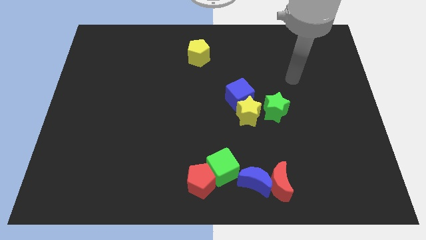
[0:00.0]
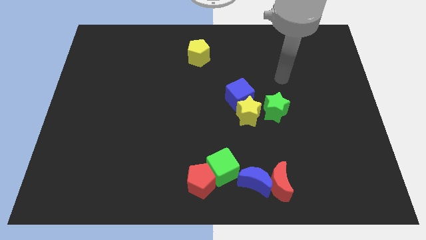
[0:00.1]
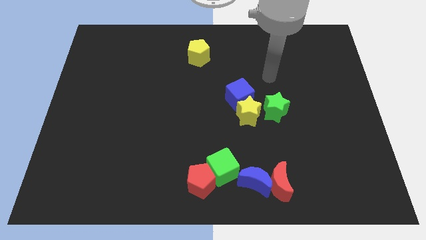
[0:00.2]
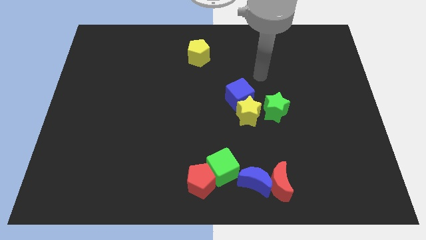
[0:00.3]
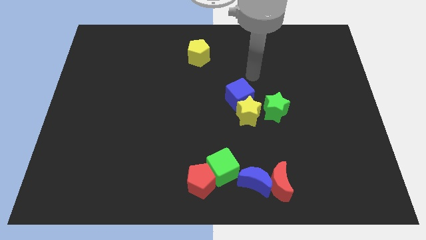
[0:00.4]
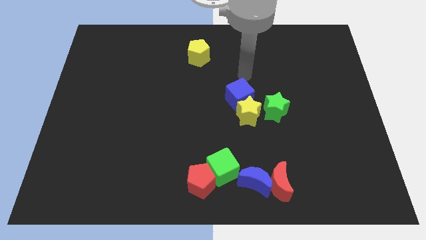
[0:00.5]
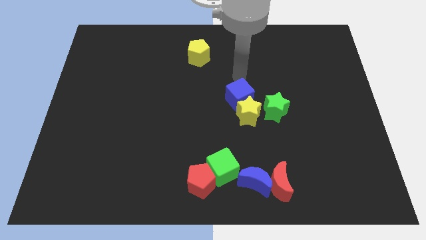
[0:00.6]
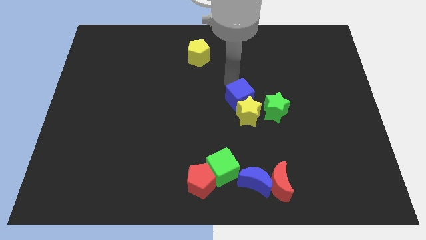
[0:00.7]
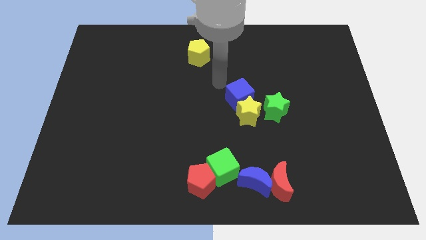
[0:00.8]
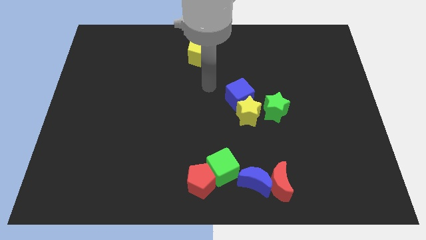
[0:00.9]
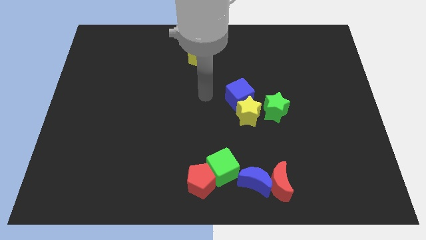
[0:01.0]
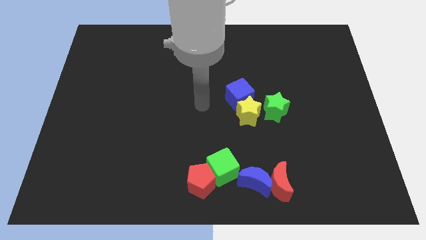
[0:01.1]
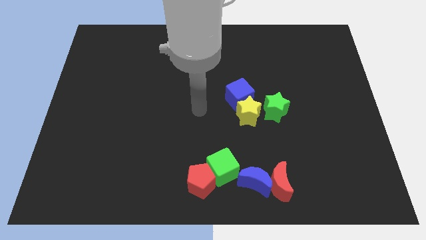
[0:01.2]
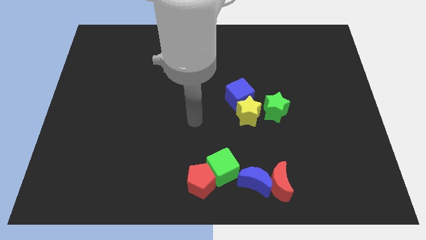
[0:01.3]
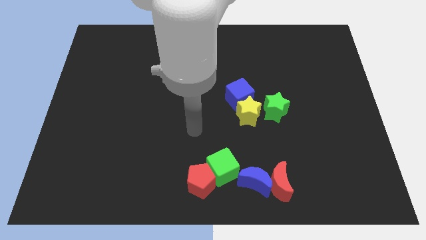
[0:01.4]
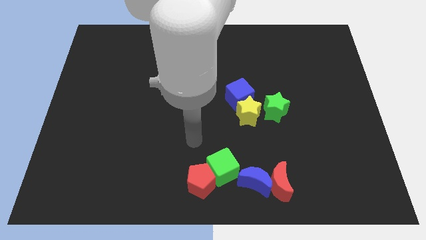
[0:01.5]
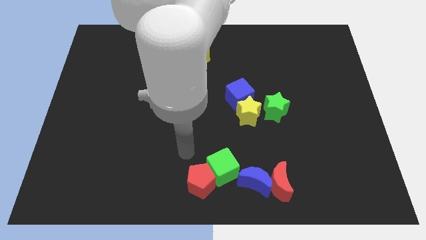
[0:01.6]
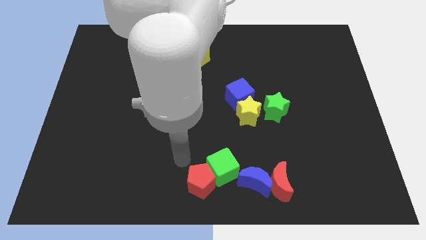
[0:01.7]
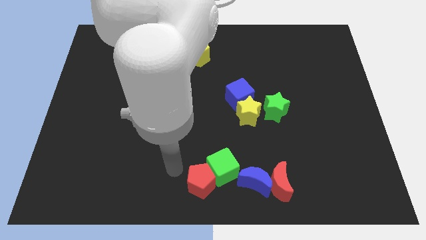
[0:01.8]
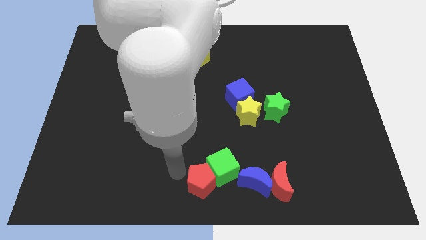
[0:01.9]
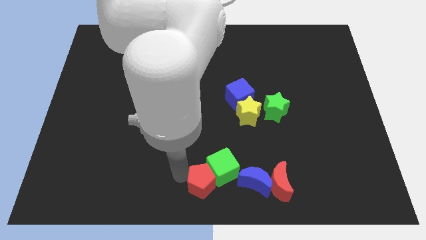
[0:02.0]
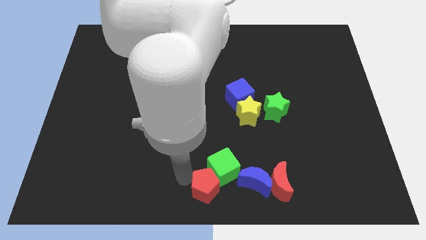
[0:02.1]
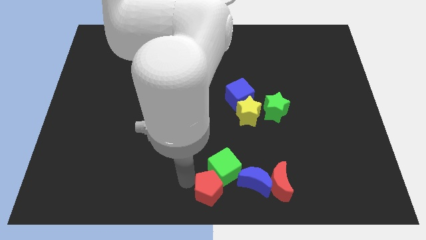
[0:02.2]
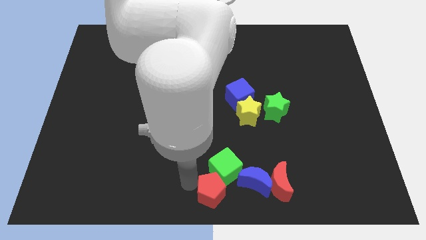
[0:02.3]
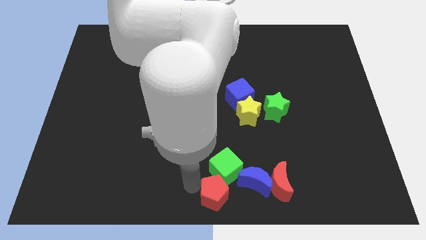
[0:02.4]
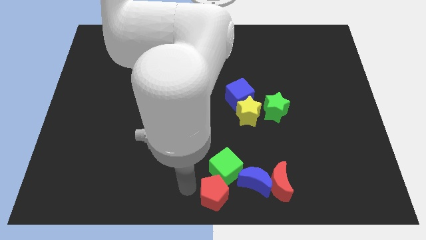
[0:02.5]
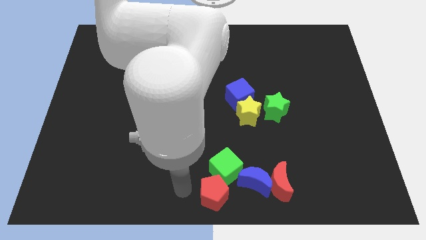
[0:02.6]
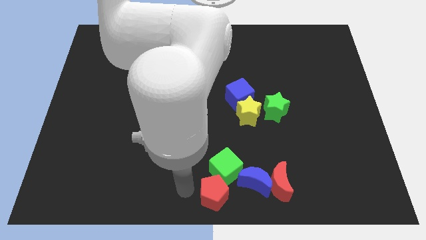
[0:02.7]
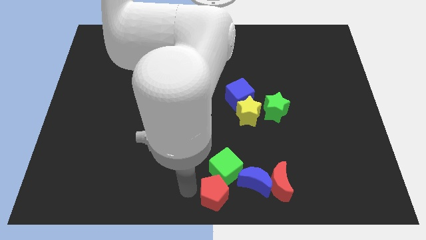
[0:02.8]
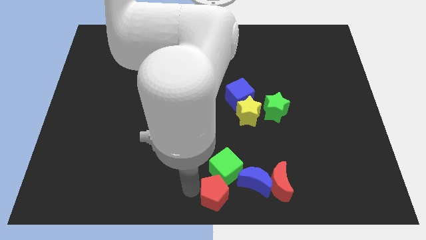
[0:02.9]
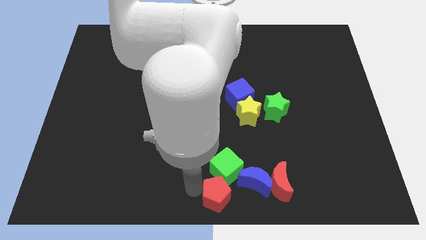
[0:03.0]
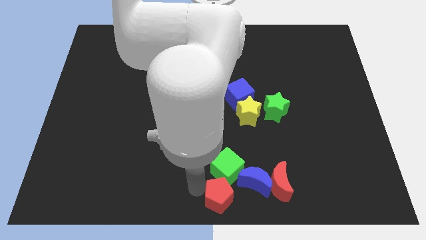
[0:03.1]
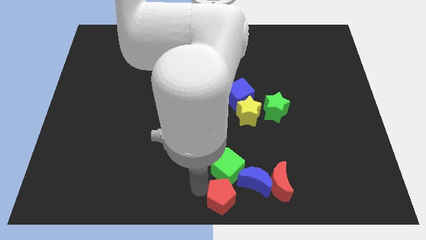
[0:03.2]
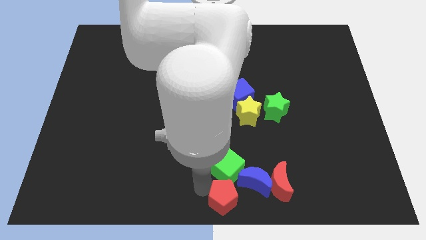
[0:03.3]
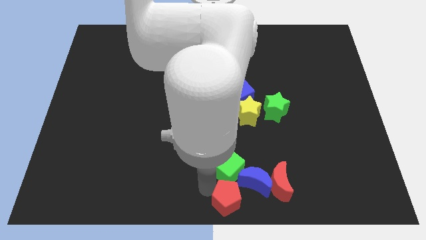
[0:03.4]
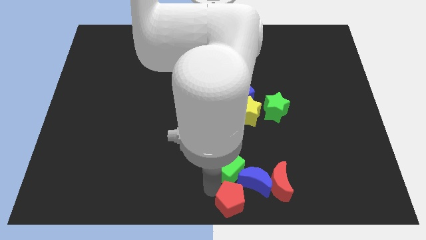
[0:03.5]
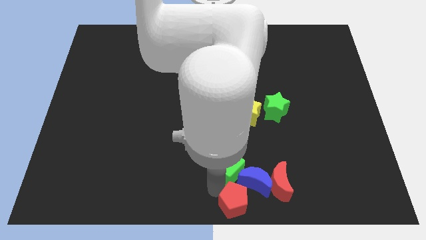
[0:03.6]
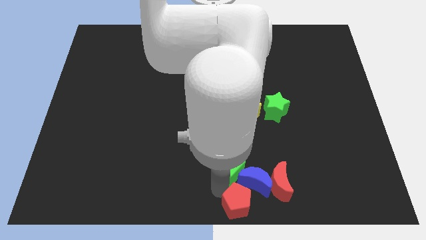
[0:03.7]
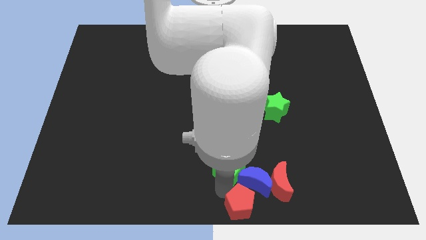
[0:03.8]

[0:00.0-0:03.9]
slide the red pentagon right a little bit

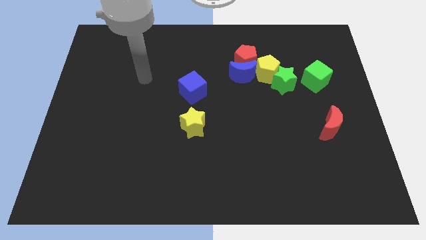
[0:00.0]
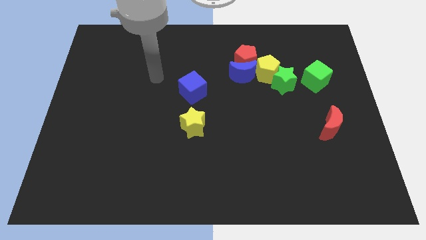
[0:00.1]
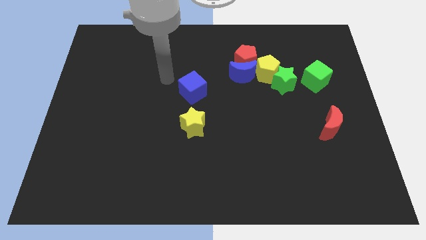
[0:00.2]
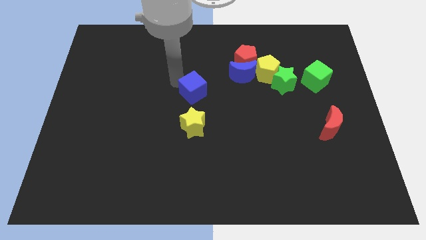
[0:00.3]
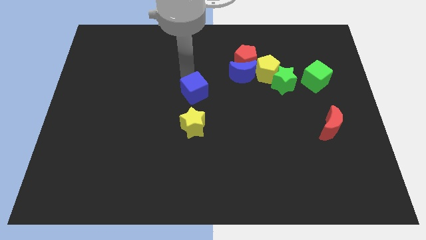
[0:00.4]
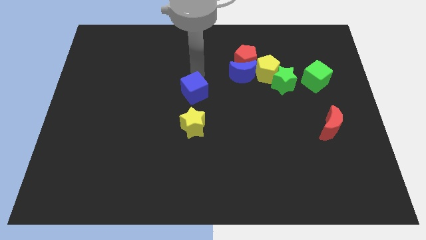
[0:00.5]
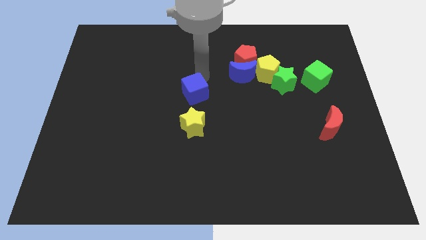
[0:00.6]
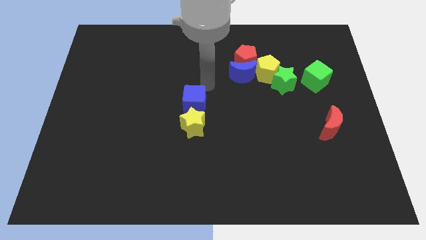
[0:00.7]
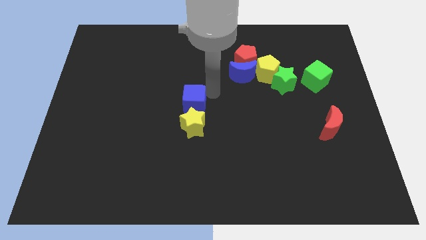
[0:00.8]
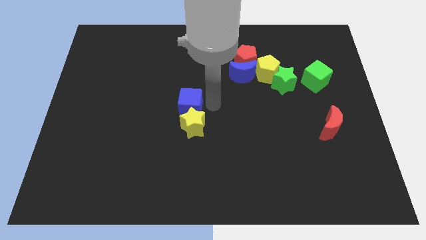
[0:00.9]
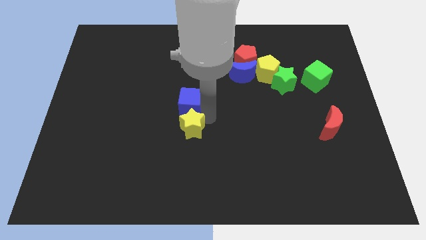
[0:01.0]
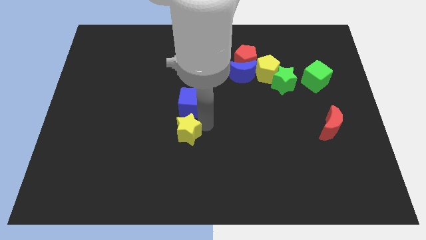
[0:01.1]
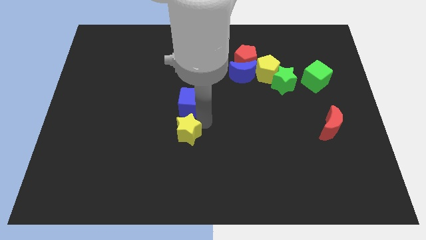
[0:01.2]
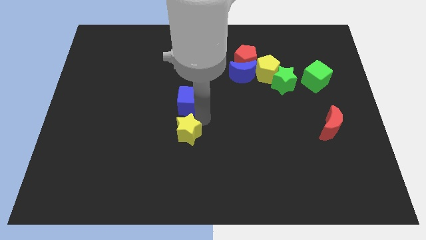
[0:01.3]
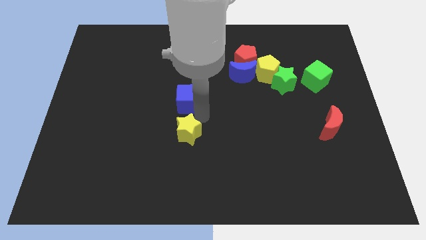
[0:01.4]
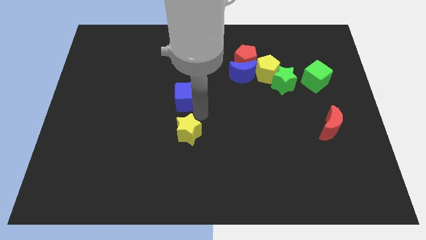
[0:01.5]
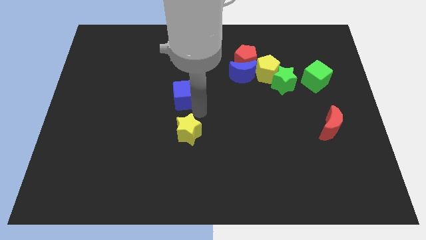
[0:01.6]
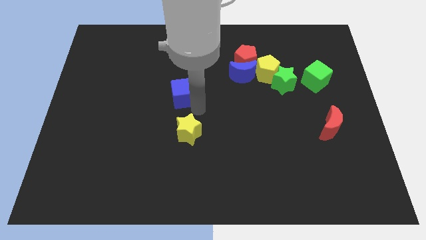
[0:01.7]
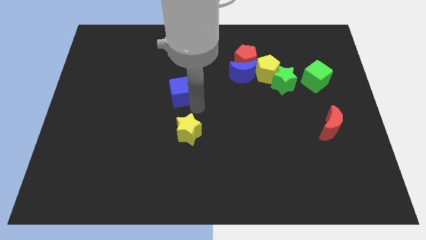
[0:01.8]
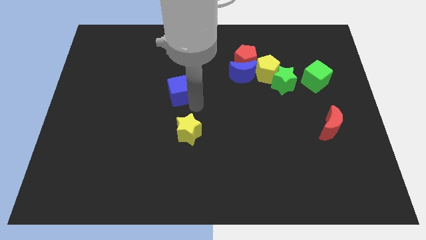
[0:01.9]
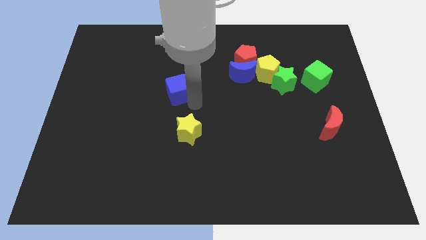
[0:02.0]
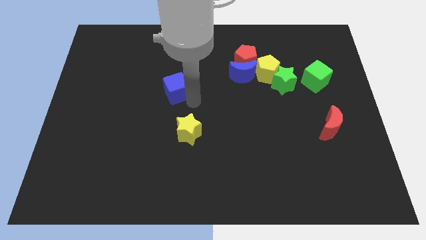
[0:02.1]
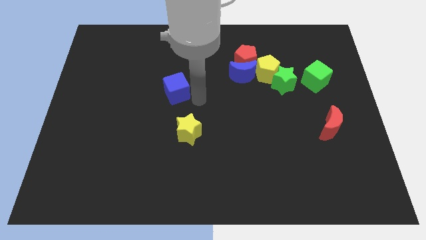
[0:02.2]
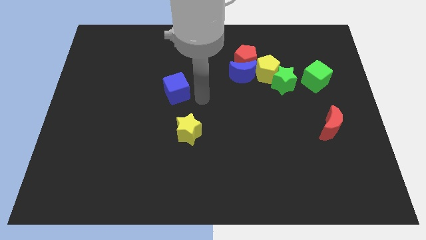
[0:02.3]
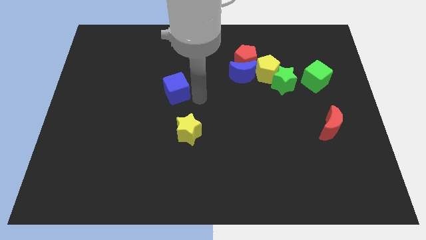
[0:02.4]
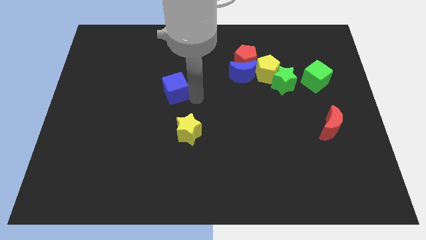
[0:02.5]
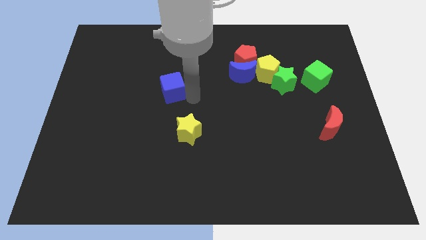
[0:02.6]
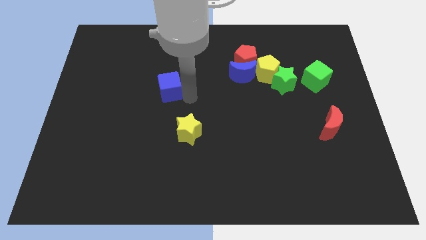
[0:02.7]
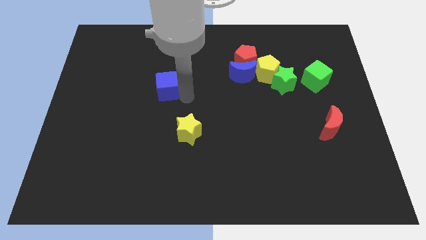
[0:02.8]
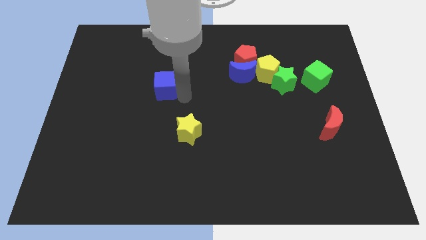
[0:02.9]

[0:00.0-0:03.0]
move the blue cube left a little

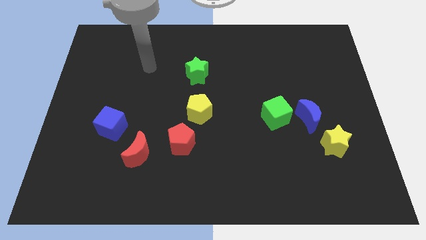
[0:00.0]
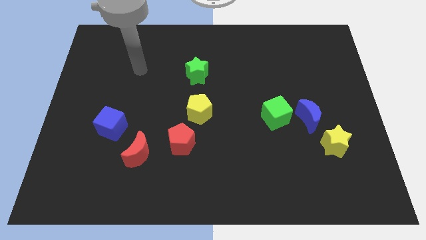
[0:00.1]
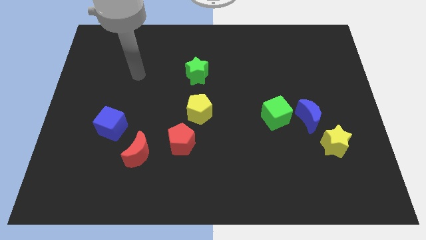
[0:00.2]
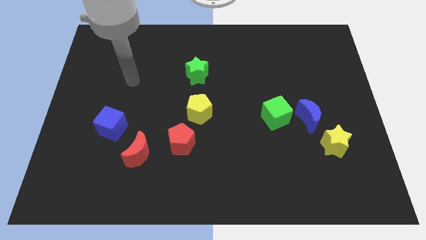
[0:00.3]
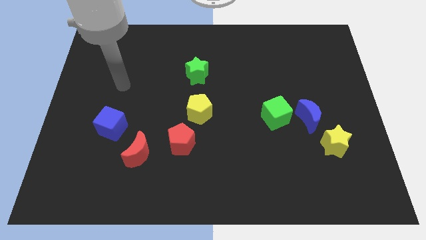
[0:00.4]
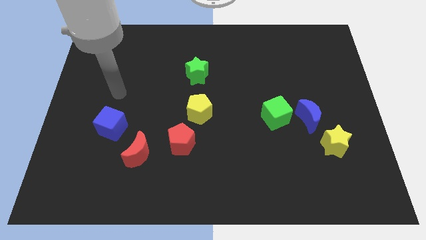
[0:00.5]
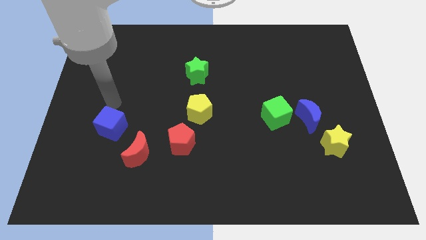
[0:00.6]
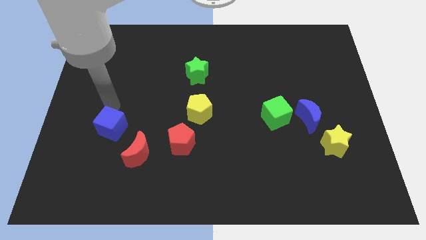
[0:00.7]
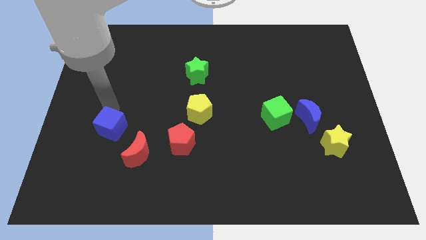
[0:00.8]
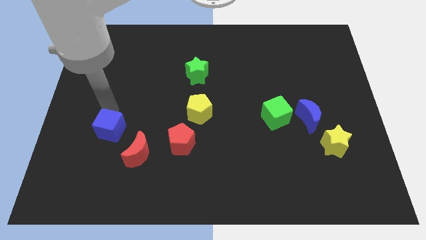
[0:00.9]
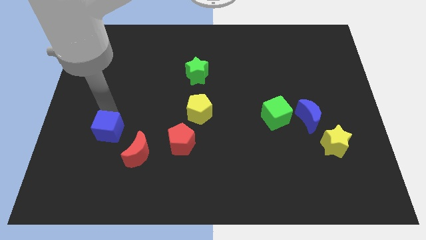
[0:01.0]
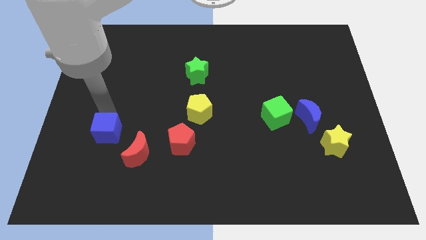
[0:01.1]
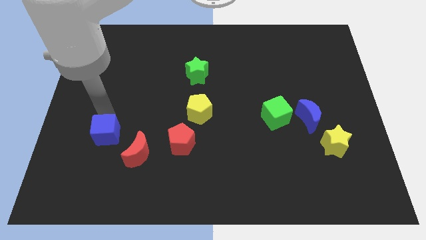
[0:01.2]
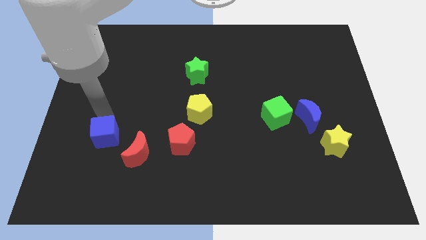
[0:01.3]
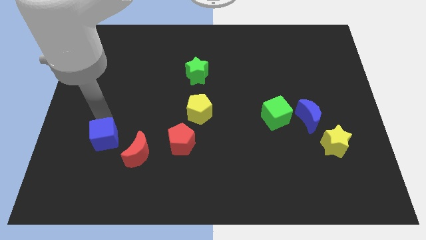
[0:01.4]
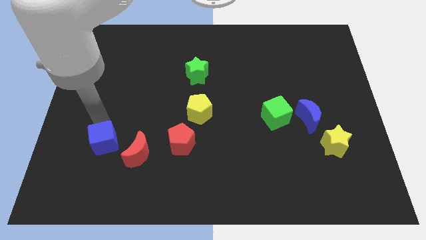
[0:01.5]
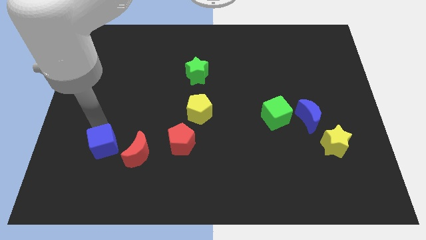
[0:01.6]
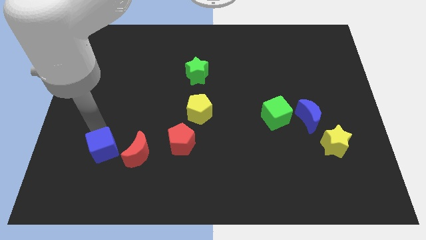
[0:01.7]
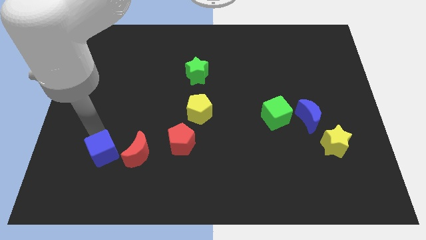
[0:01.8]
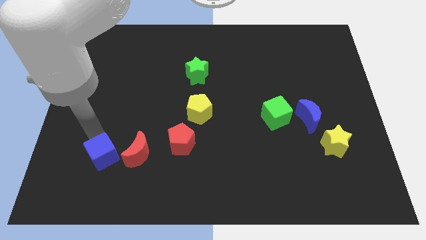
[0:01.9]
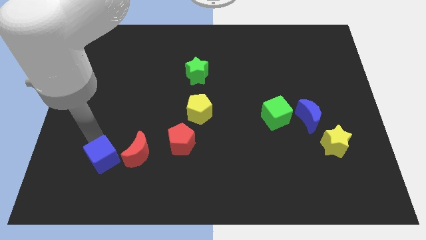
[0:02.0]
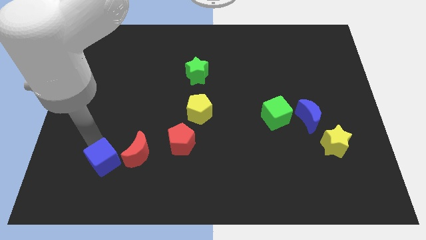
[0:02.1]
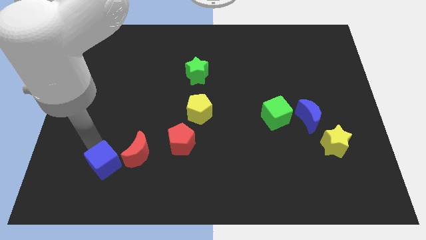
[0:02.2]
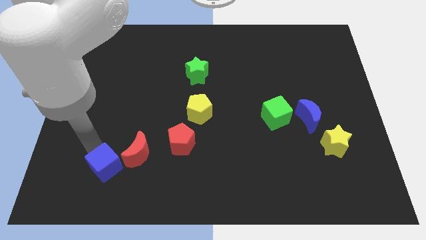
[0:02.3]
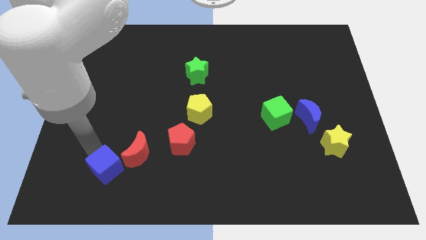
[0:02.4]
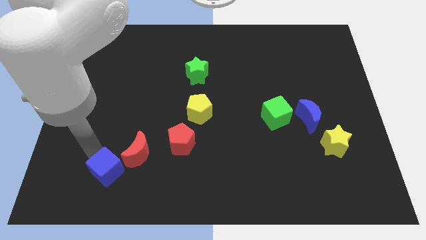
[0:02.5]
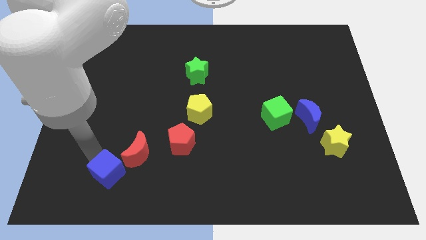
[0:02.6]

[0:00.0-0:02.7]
slightly move the blue cube down and then to the right
